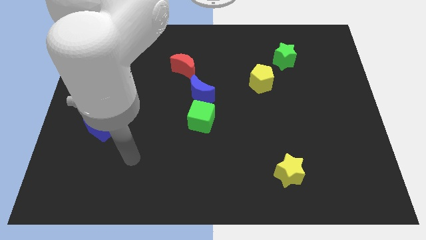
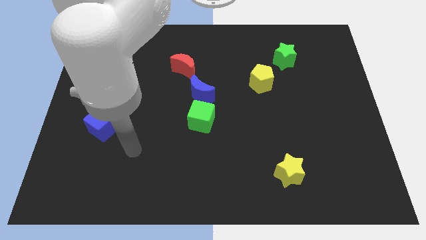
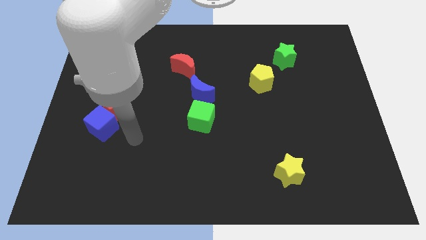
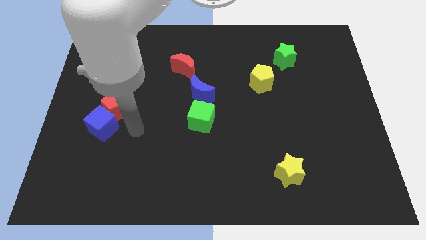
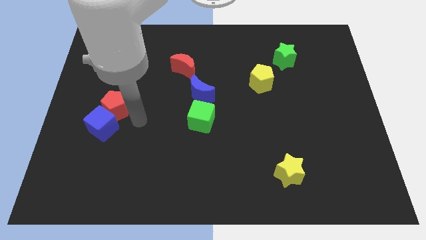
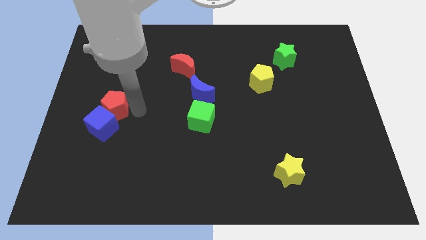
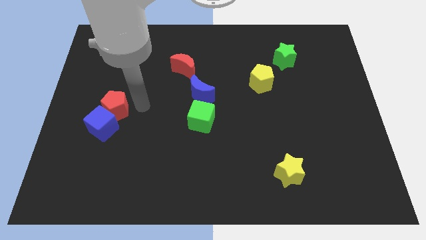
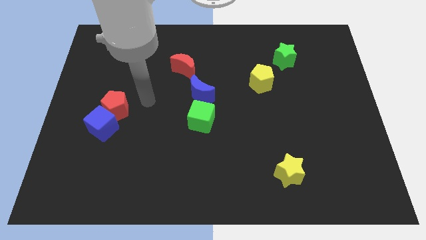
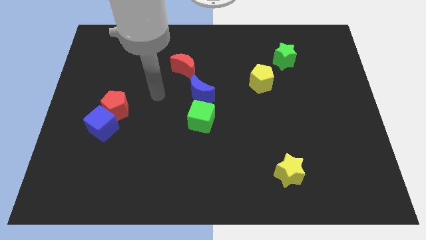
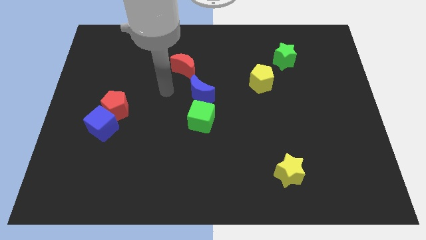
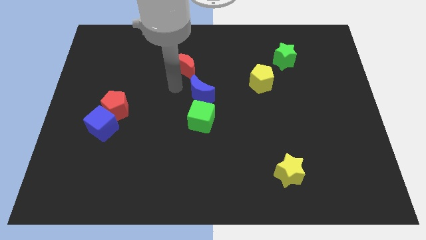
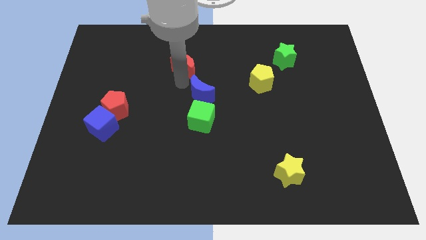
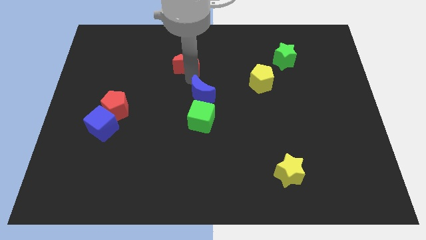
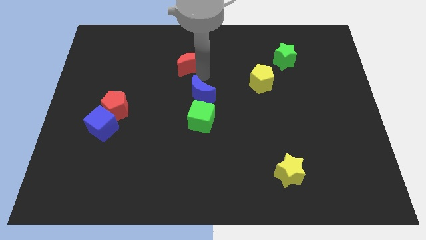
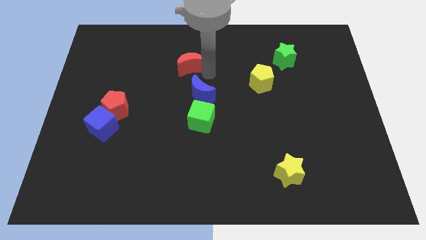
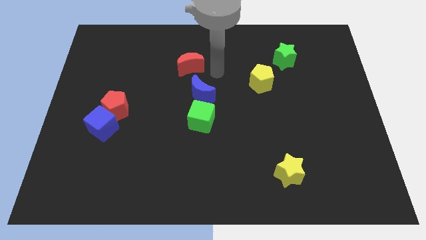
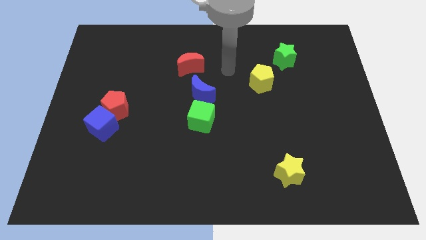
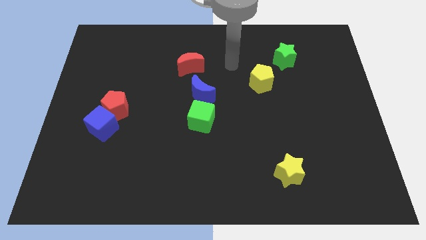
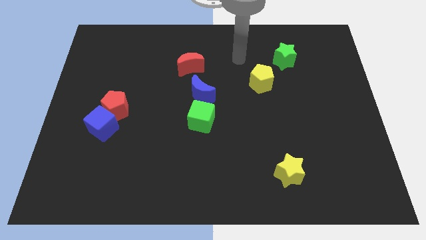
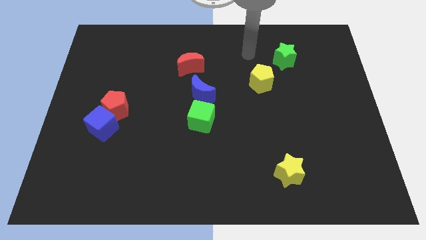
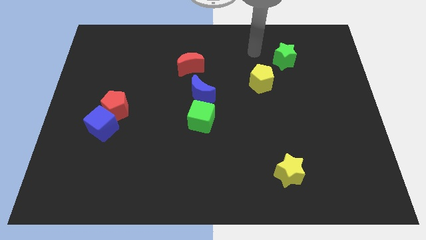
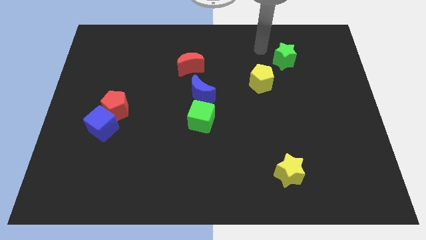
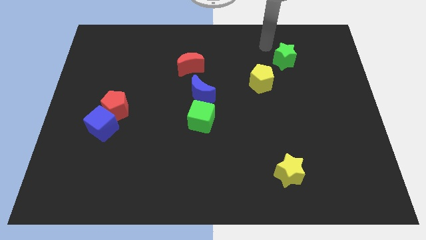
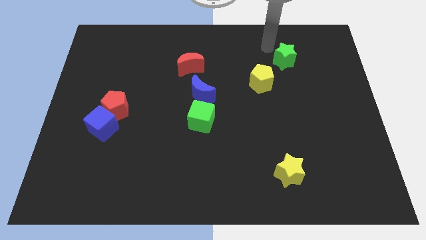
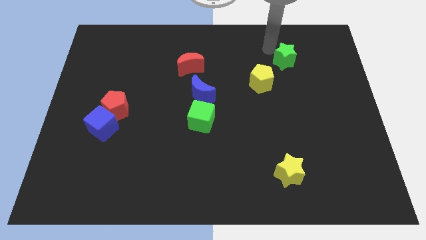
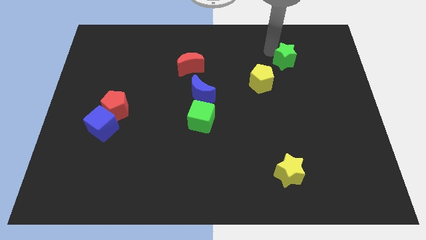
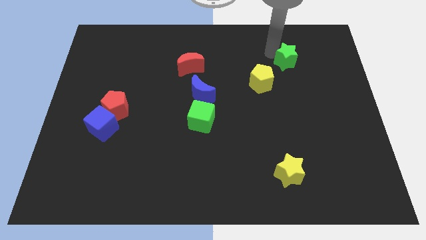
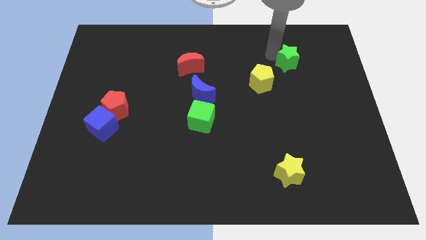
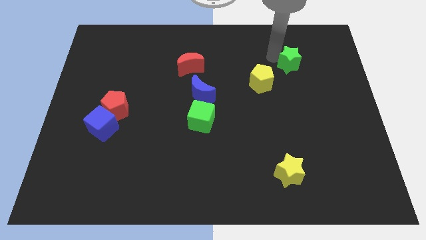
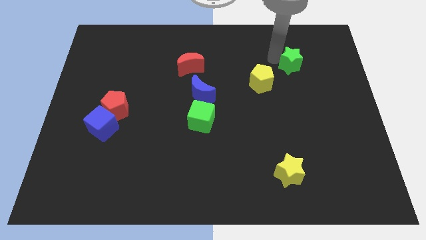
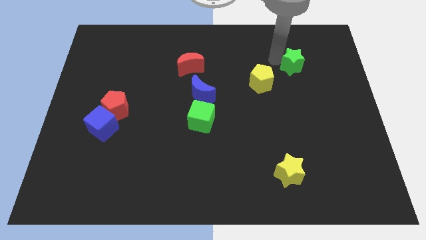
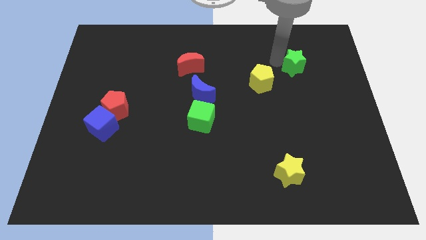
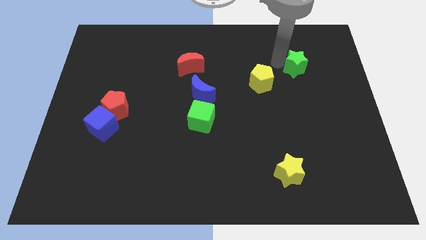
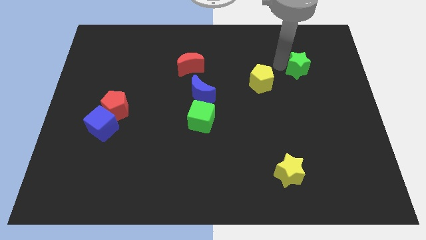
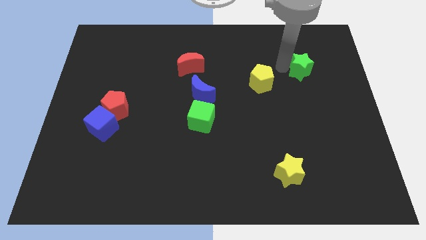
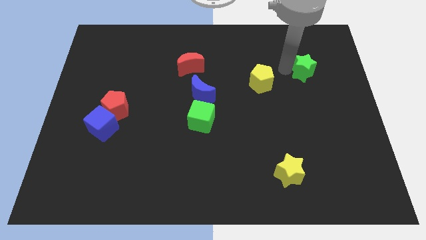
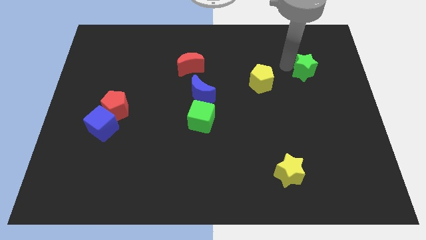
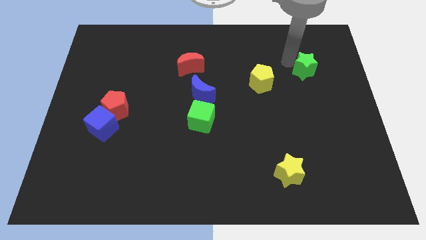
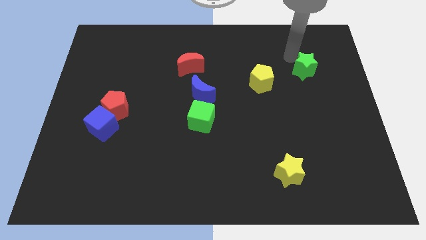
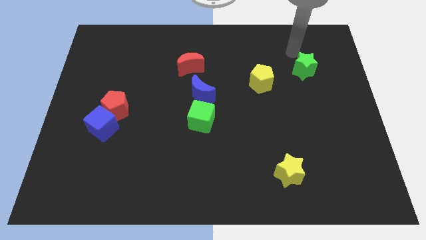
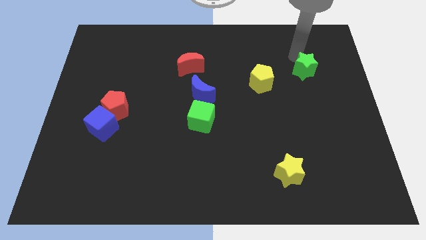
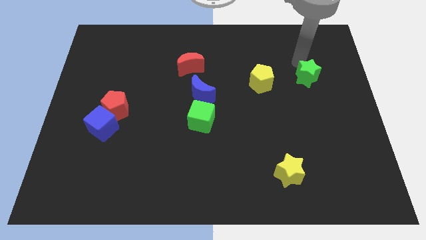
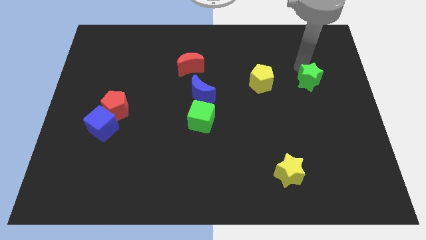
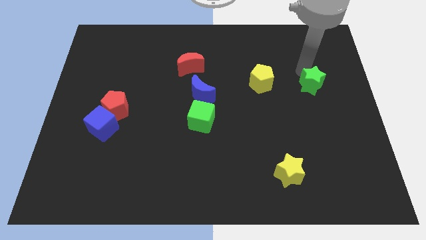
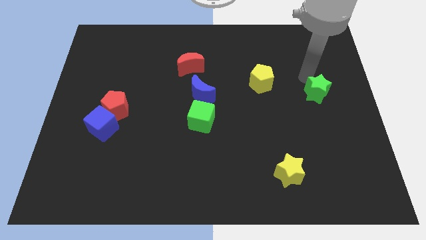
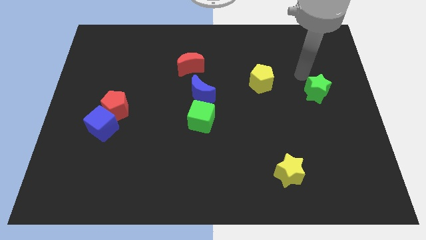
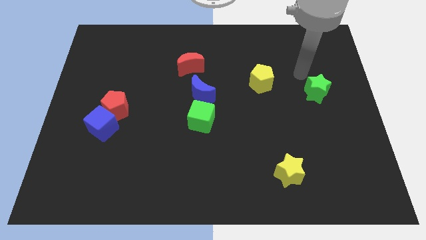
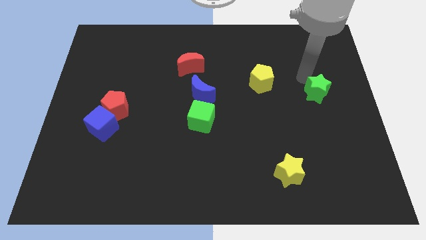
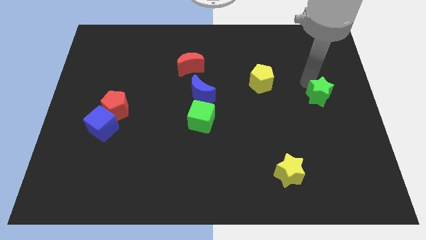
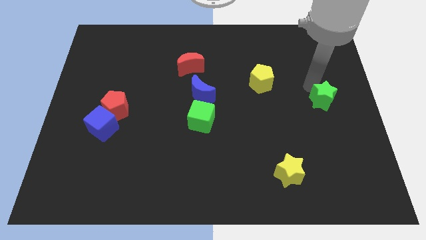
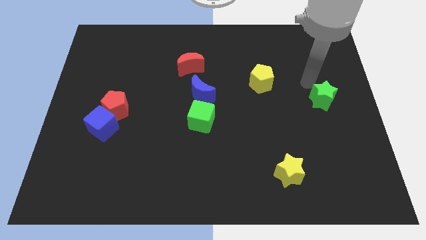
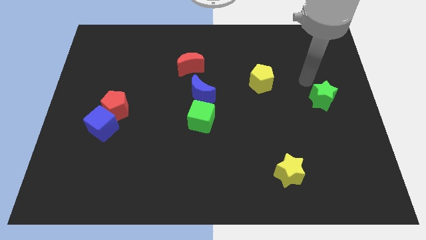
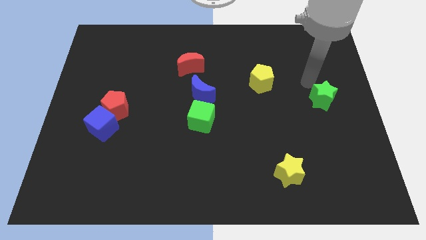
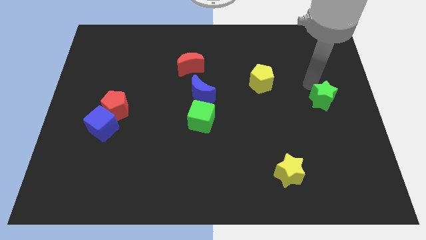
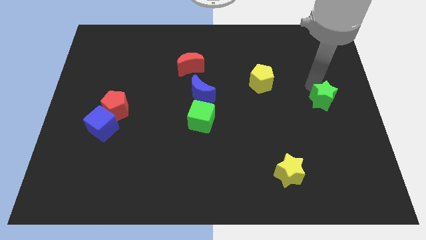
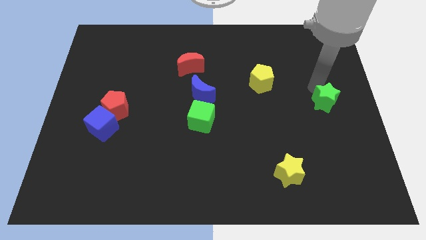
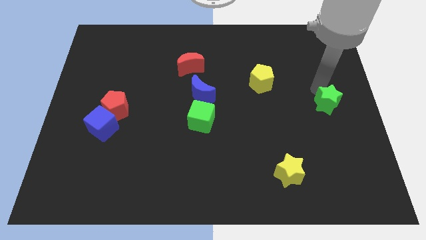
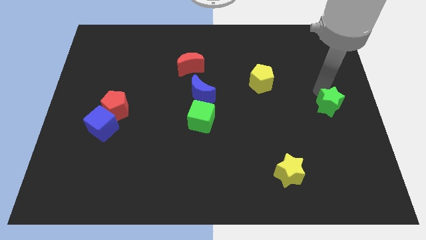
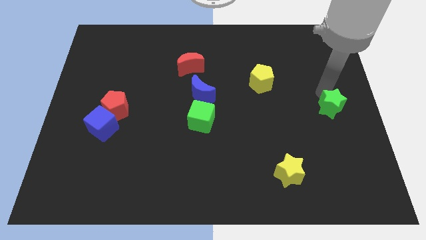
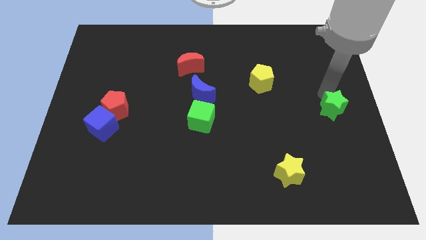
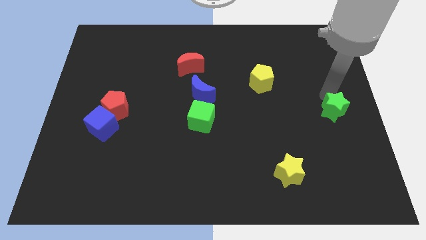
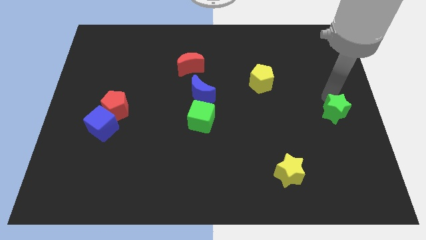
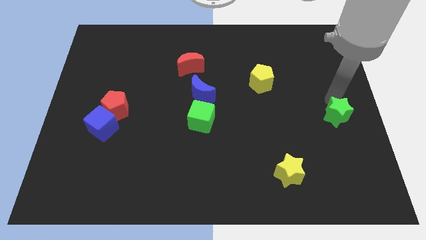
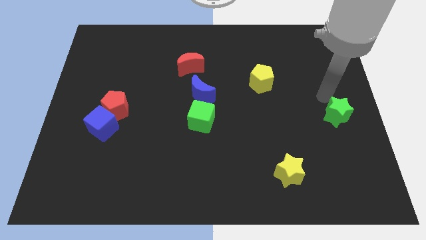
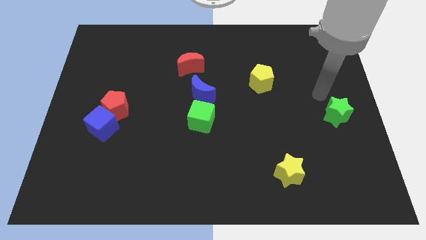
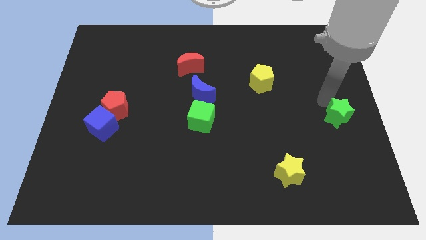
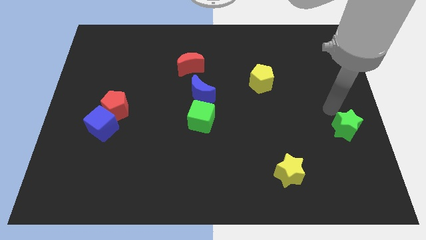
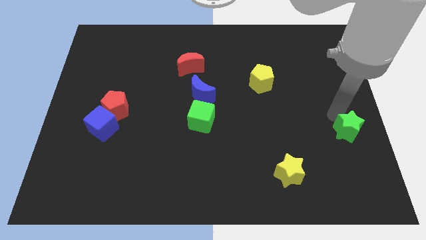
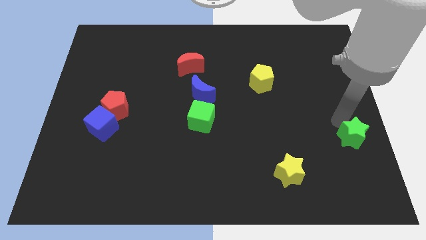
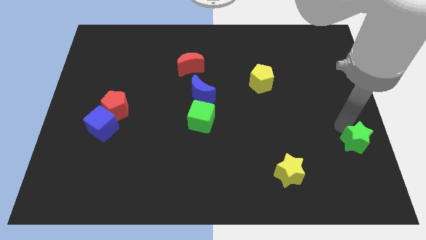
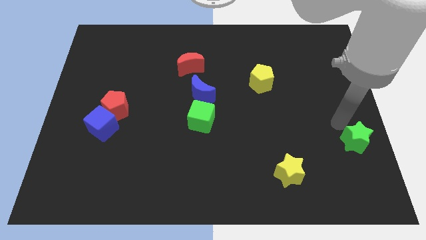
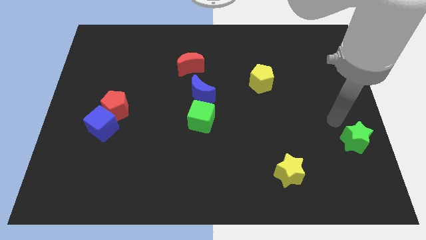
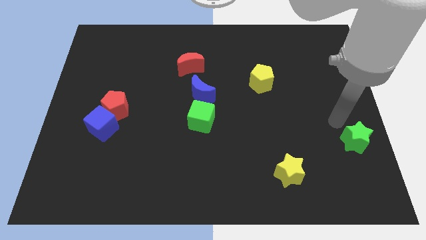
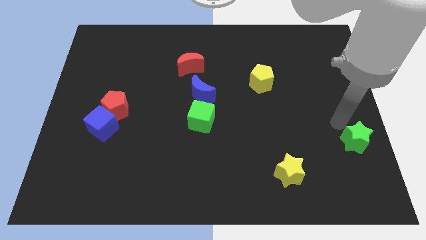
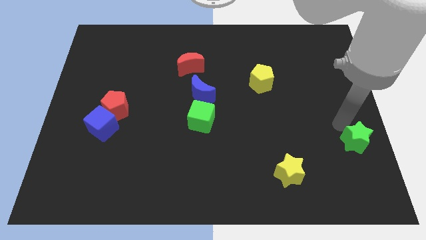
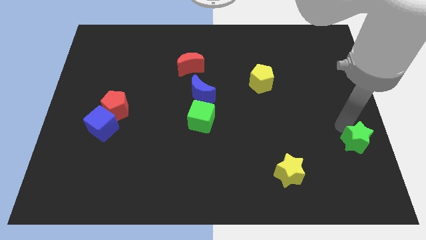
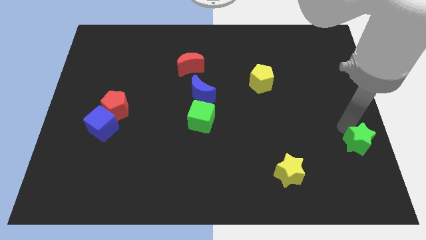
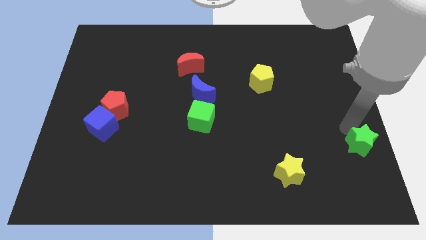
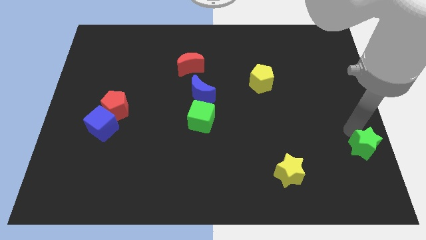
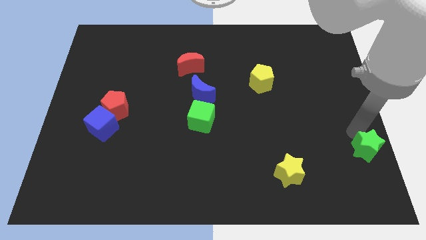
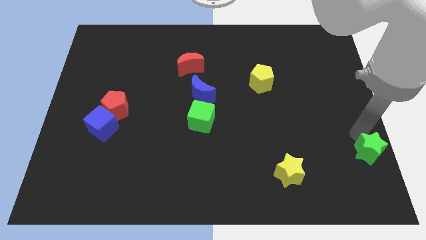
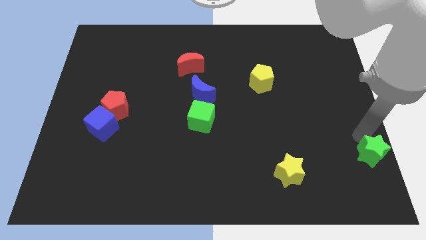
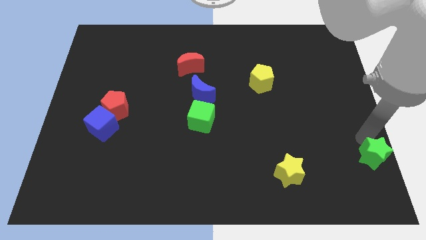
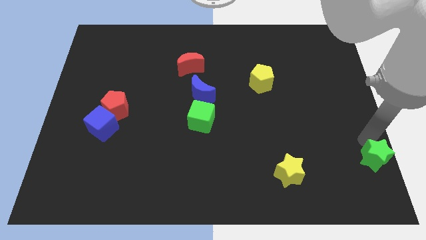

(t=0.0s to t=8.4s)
push the green star to the bottom right of the board
